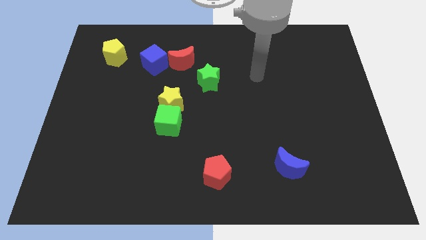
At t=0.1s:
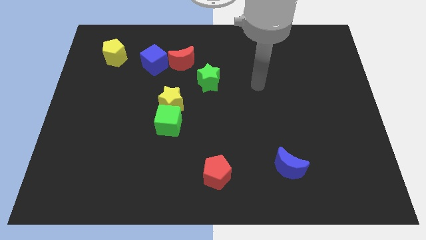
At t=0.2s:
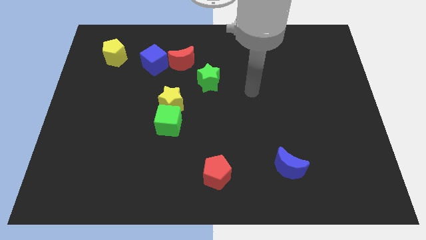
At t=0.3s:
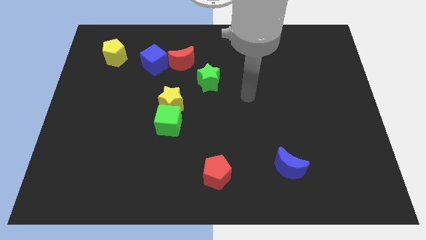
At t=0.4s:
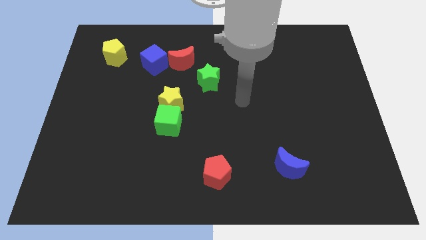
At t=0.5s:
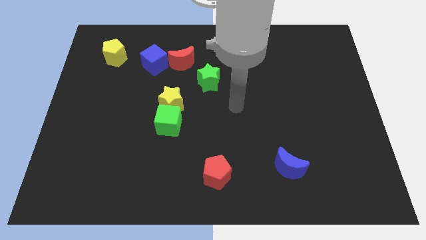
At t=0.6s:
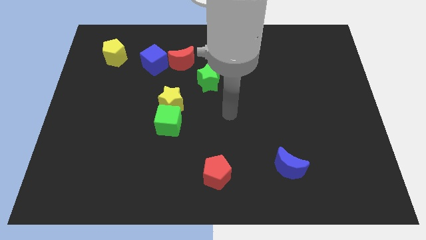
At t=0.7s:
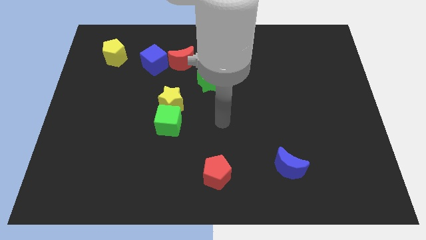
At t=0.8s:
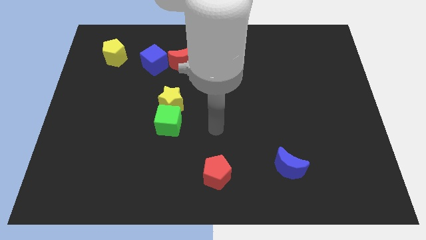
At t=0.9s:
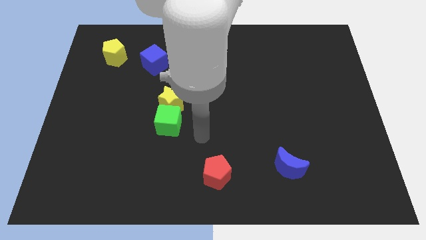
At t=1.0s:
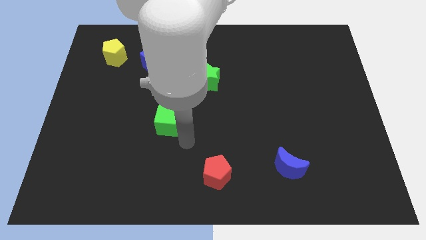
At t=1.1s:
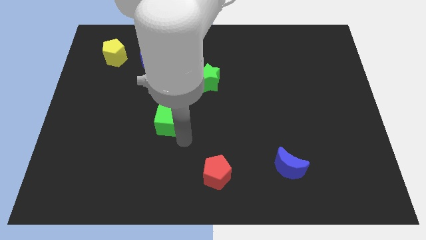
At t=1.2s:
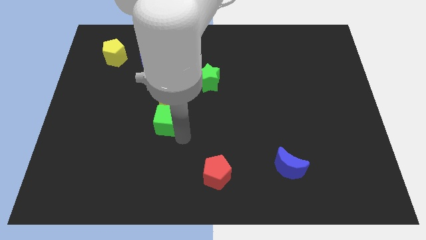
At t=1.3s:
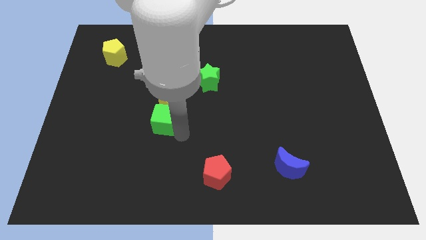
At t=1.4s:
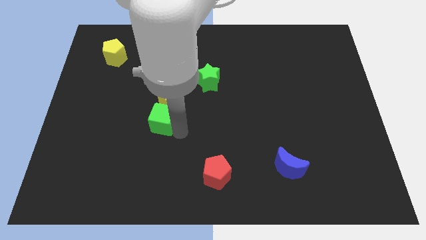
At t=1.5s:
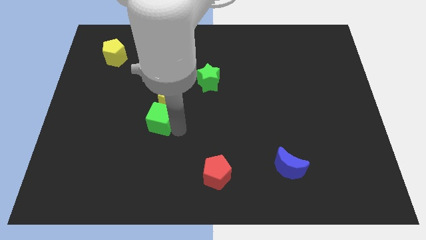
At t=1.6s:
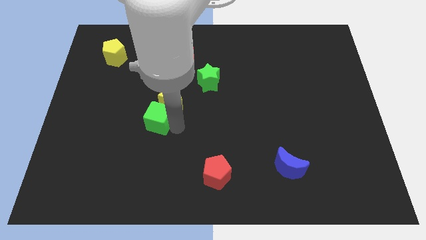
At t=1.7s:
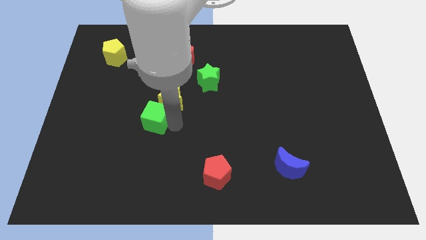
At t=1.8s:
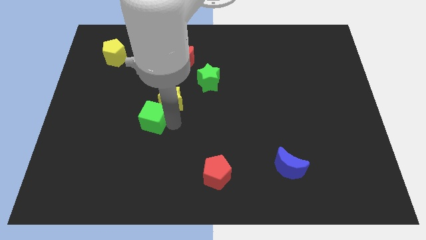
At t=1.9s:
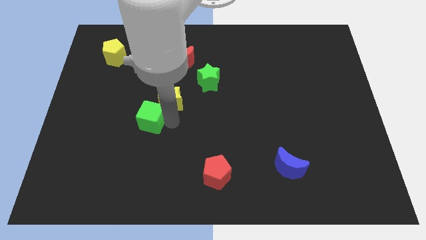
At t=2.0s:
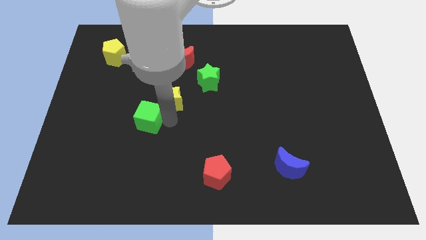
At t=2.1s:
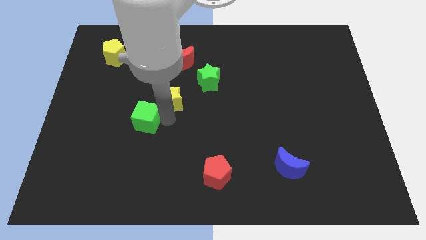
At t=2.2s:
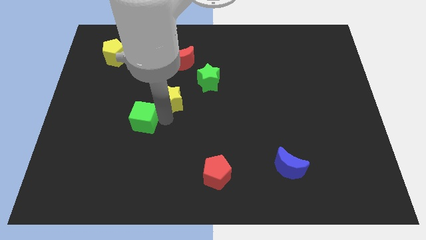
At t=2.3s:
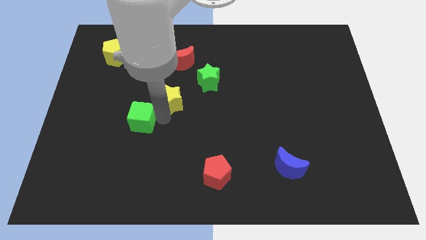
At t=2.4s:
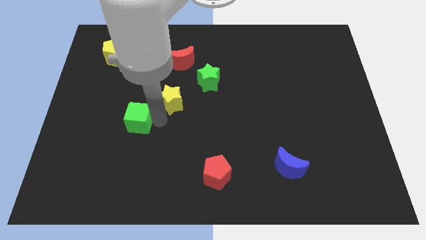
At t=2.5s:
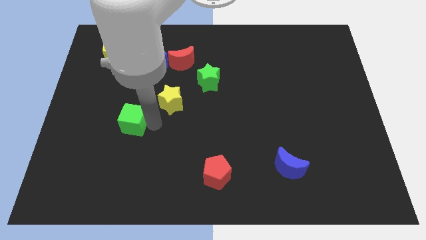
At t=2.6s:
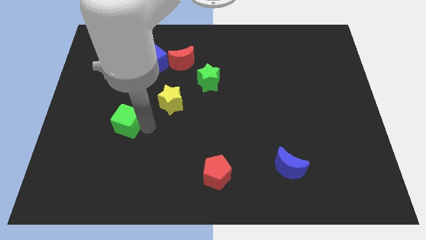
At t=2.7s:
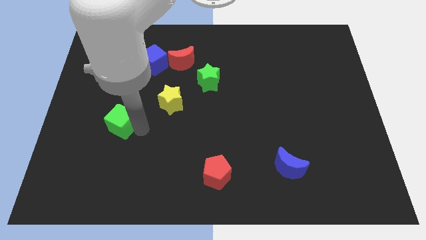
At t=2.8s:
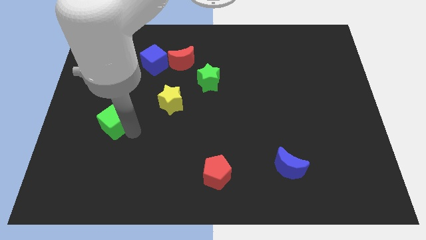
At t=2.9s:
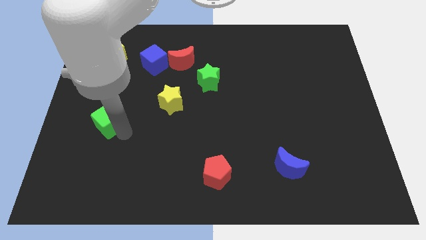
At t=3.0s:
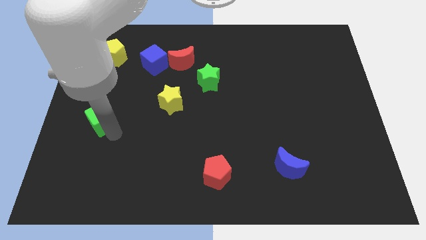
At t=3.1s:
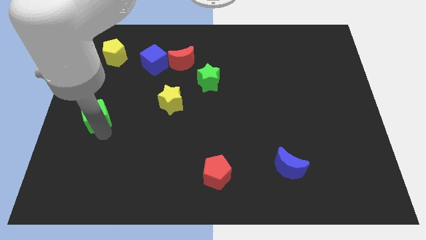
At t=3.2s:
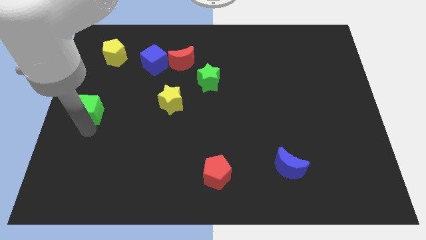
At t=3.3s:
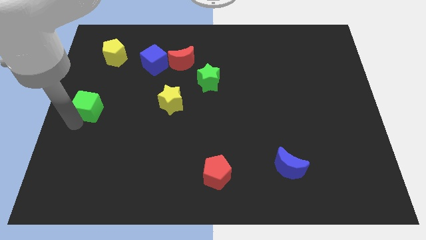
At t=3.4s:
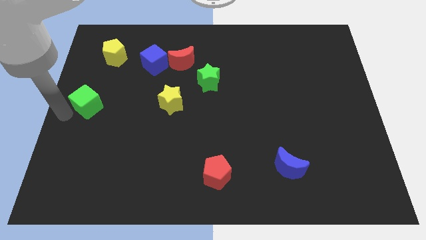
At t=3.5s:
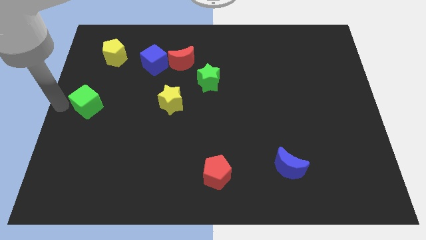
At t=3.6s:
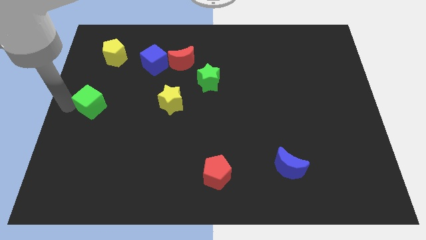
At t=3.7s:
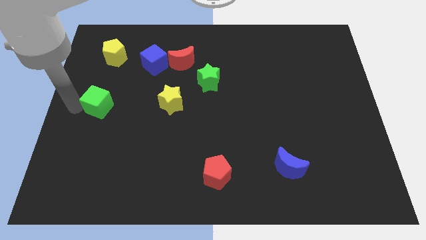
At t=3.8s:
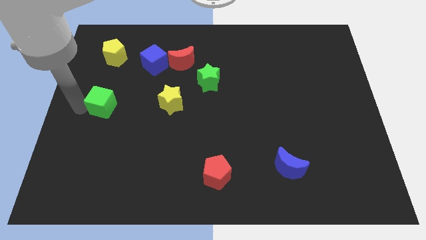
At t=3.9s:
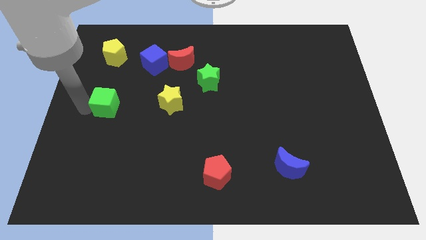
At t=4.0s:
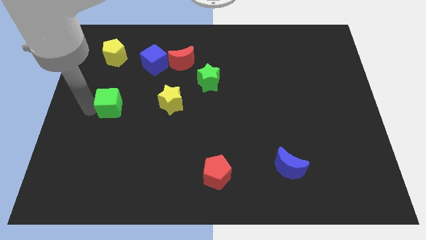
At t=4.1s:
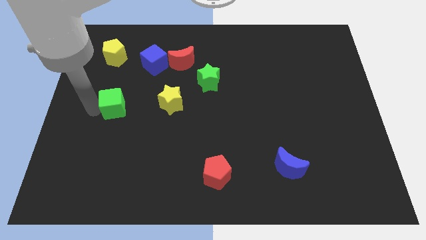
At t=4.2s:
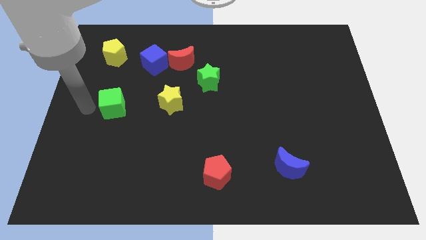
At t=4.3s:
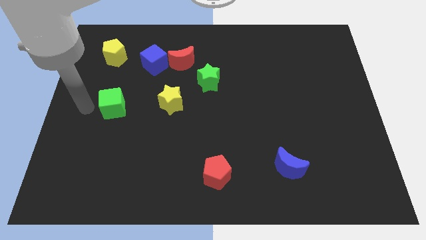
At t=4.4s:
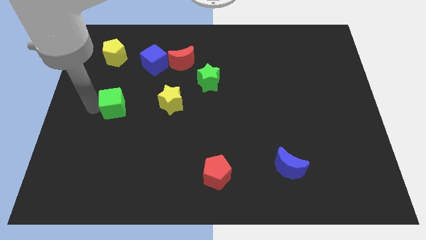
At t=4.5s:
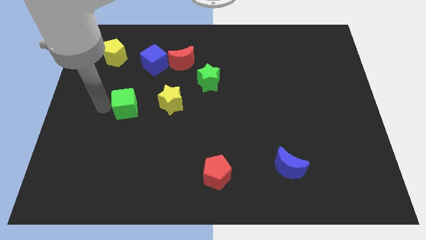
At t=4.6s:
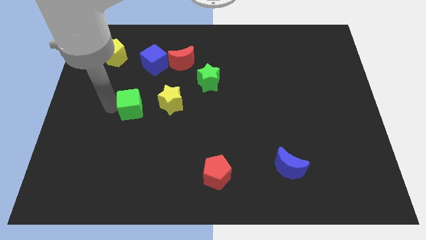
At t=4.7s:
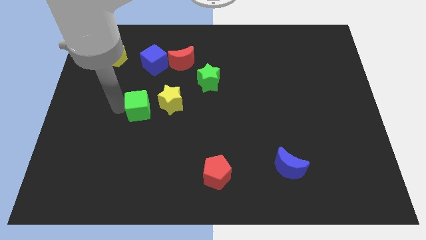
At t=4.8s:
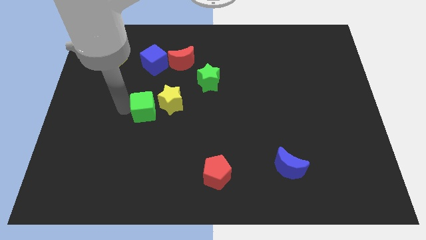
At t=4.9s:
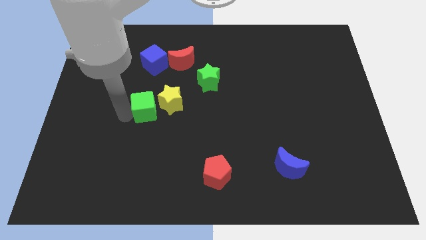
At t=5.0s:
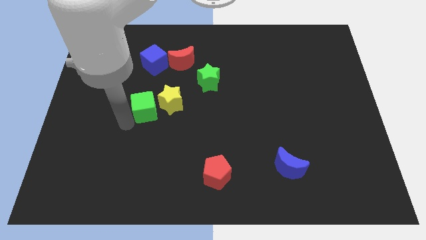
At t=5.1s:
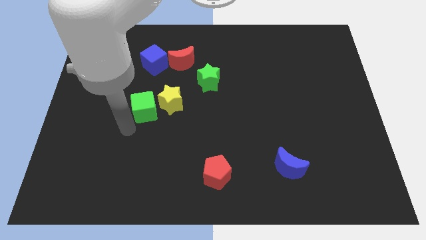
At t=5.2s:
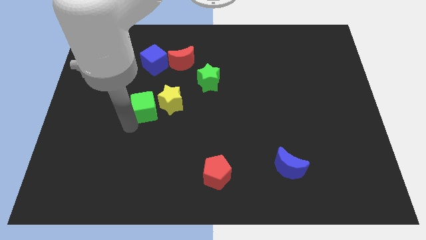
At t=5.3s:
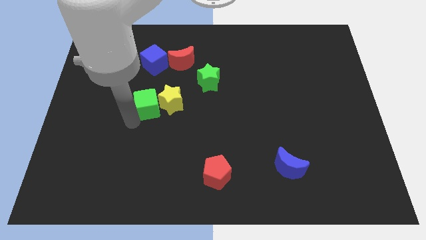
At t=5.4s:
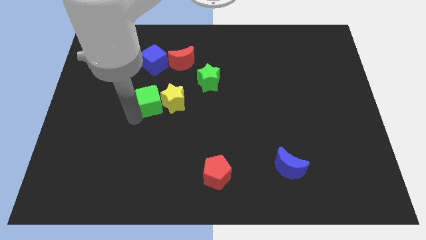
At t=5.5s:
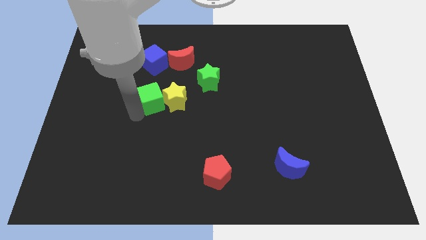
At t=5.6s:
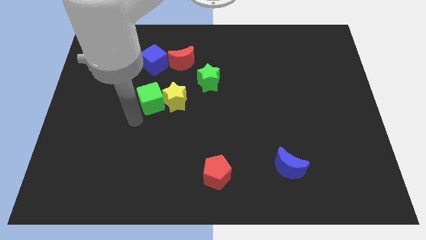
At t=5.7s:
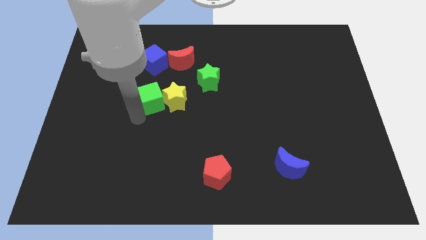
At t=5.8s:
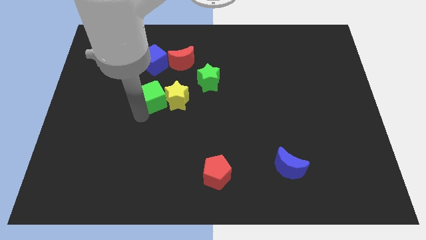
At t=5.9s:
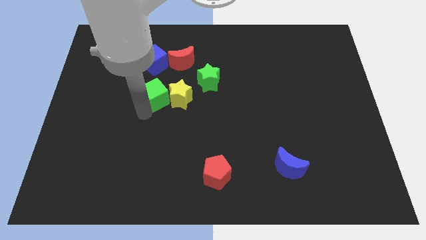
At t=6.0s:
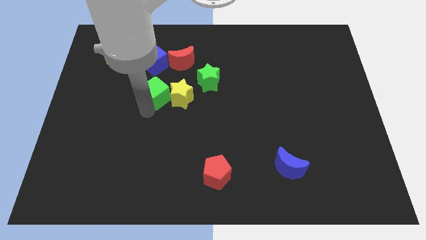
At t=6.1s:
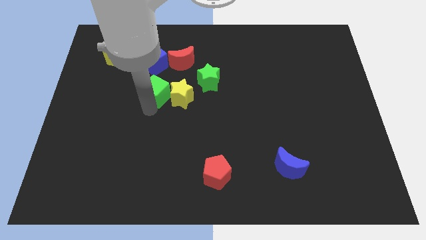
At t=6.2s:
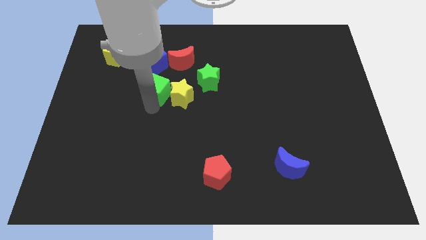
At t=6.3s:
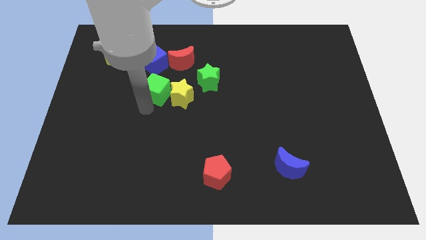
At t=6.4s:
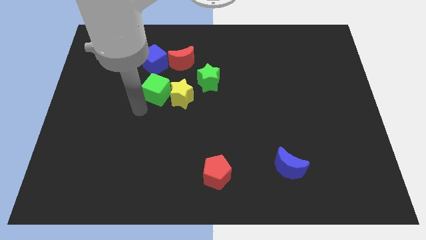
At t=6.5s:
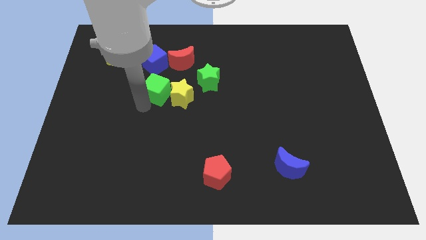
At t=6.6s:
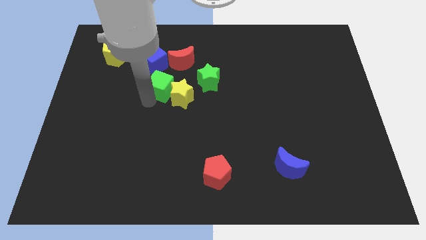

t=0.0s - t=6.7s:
move the green cube to the bottom right of the blue cube

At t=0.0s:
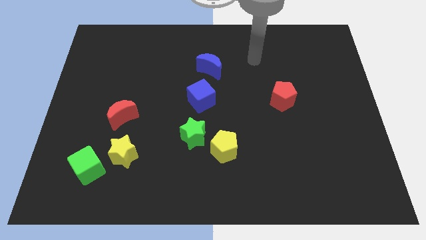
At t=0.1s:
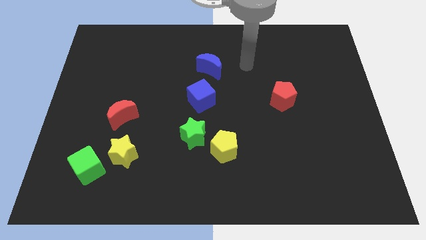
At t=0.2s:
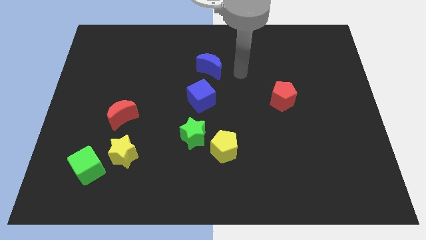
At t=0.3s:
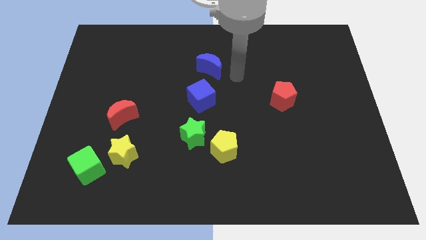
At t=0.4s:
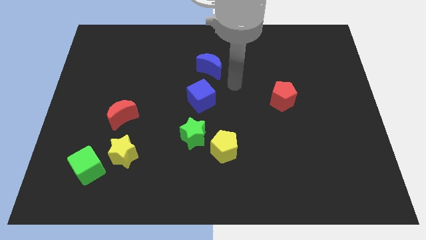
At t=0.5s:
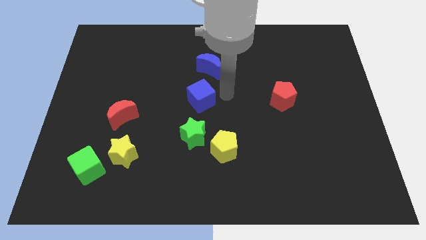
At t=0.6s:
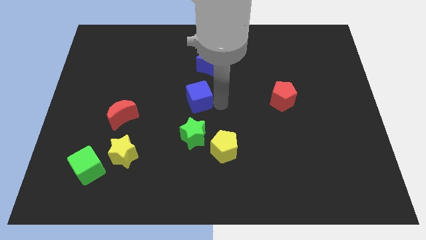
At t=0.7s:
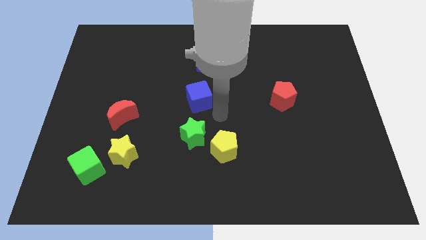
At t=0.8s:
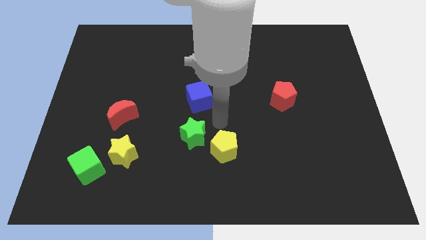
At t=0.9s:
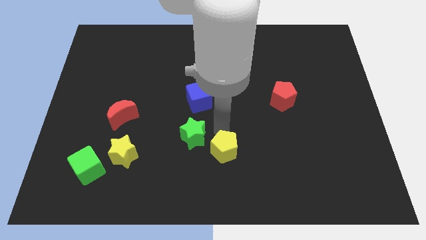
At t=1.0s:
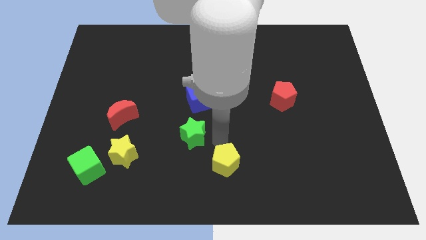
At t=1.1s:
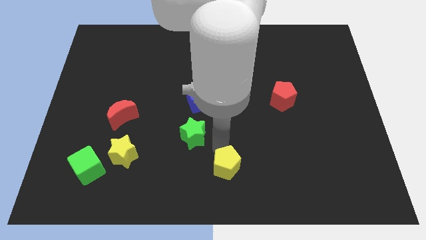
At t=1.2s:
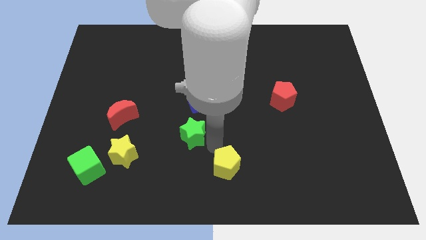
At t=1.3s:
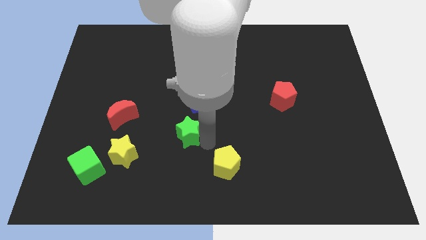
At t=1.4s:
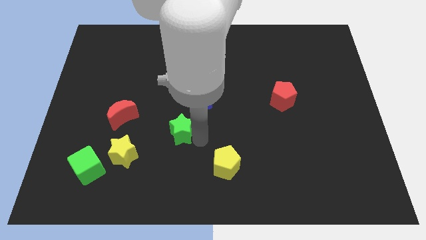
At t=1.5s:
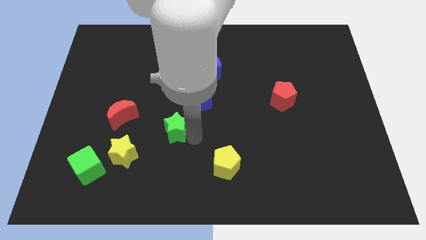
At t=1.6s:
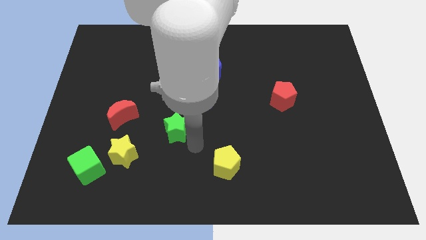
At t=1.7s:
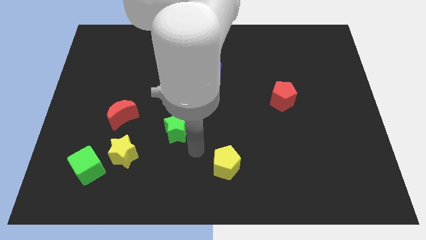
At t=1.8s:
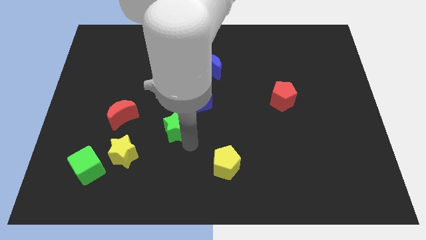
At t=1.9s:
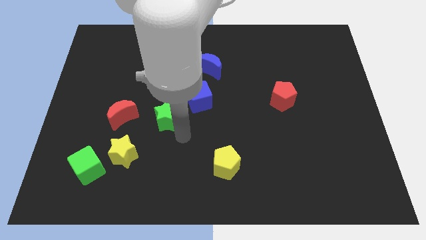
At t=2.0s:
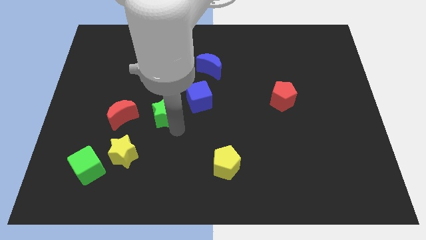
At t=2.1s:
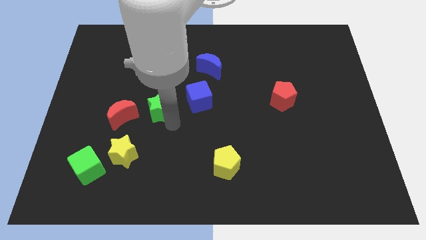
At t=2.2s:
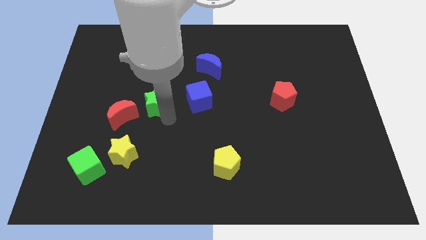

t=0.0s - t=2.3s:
push the green star to the top right side of the red moon
